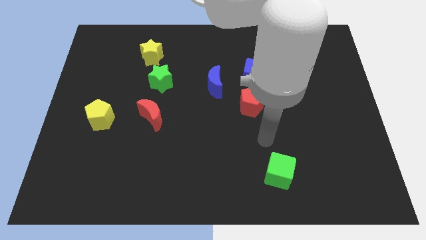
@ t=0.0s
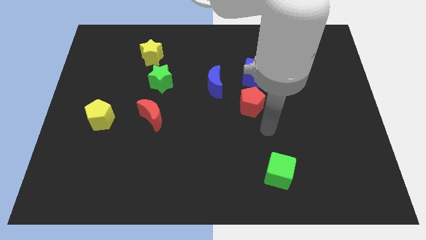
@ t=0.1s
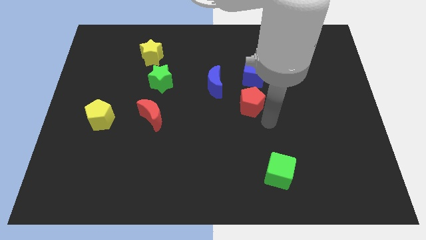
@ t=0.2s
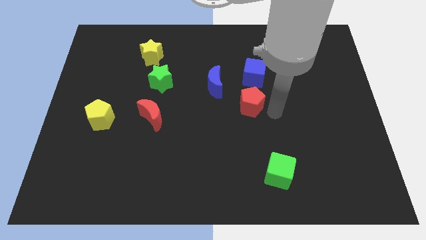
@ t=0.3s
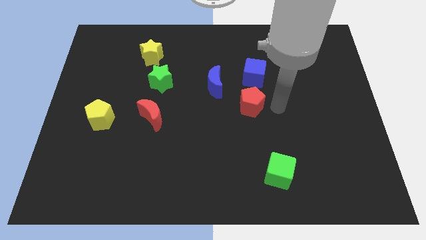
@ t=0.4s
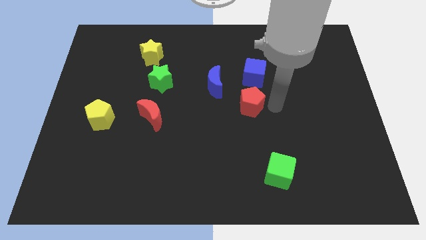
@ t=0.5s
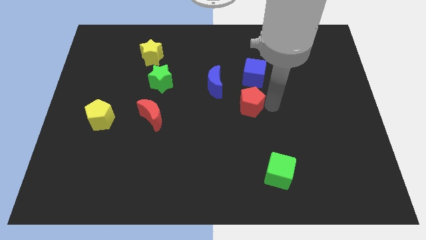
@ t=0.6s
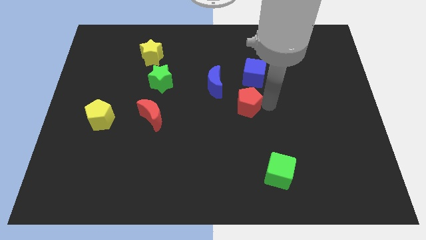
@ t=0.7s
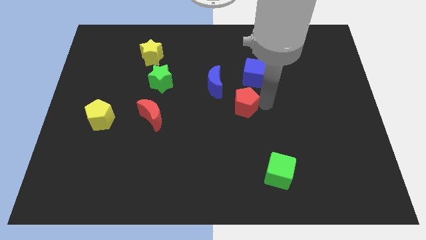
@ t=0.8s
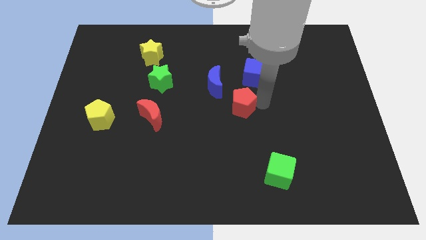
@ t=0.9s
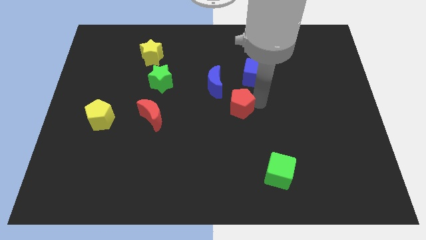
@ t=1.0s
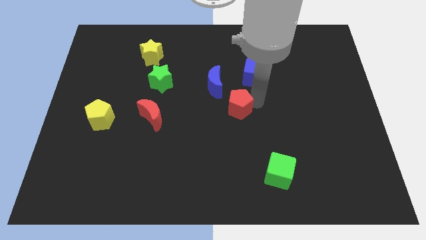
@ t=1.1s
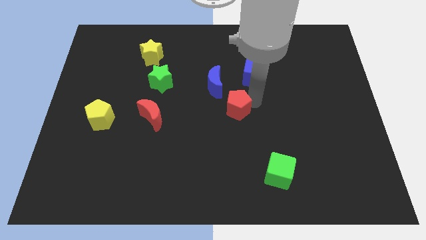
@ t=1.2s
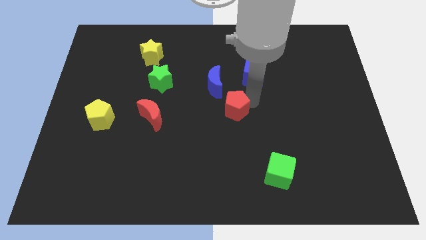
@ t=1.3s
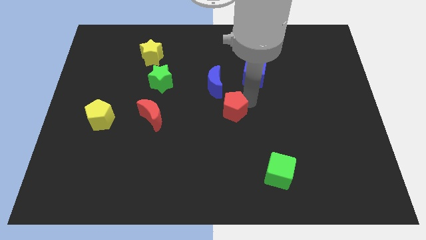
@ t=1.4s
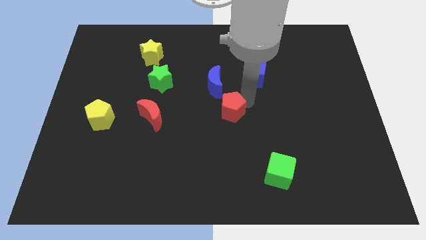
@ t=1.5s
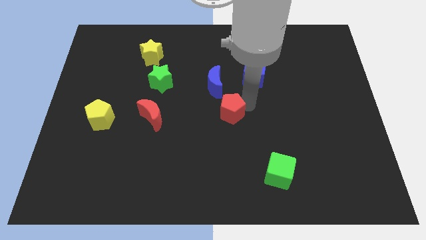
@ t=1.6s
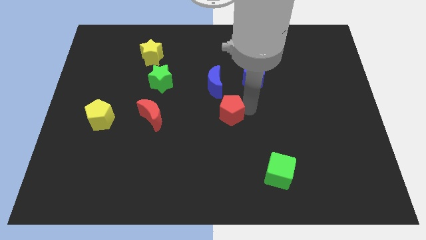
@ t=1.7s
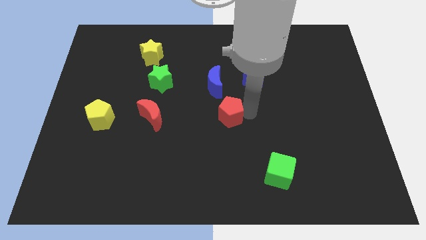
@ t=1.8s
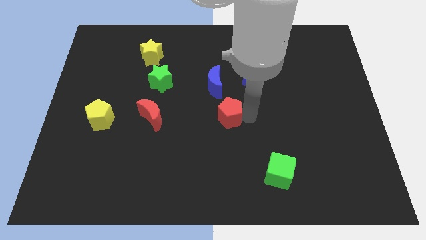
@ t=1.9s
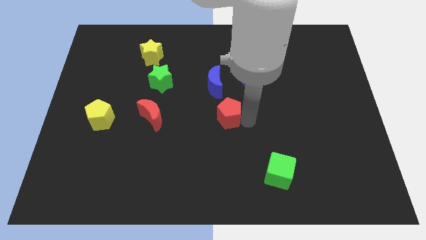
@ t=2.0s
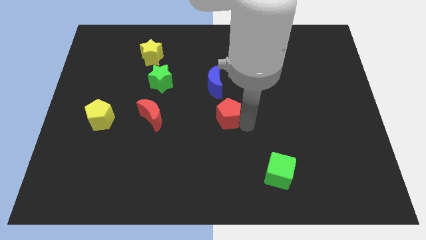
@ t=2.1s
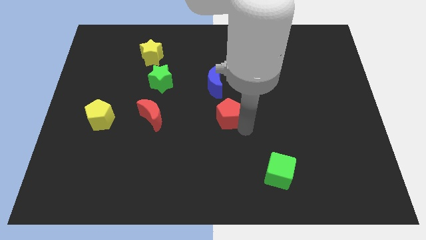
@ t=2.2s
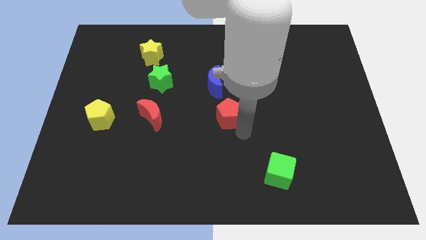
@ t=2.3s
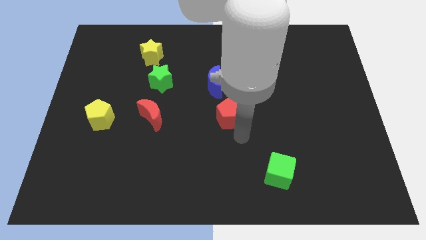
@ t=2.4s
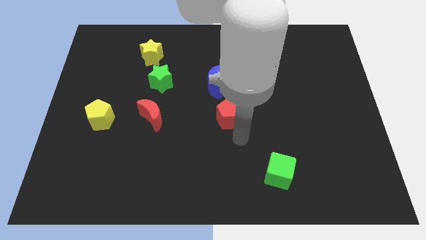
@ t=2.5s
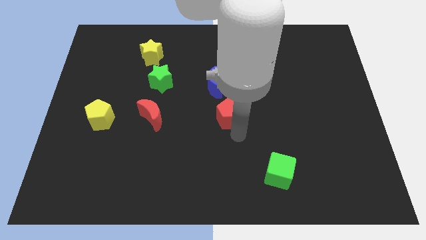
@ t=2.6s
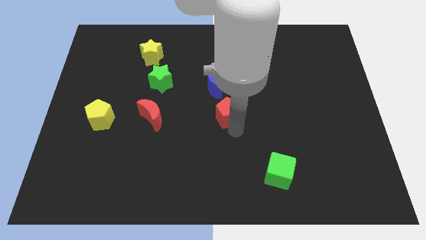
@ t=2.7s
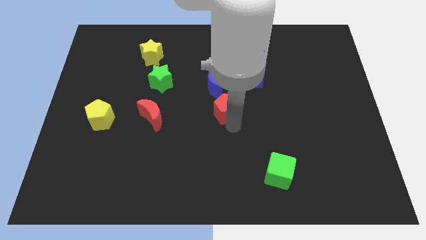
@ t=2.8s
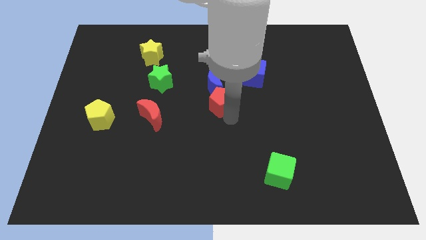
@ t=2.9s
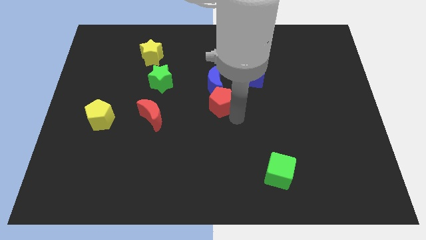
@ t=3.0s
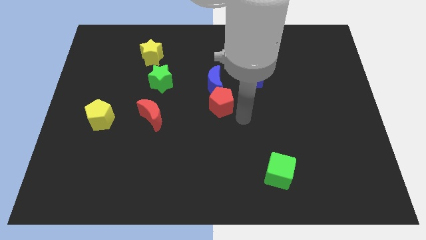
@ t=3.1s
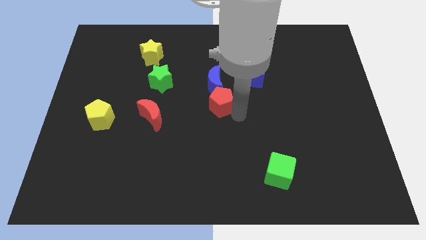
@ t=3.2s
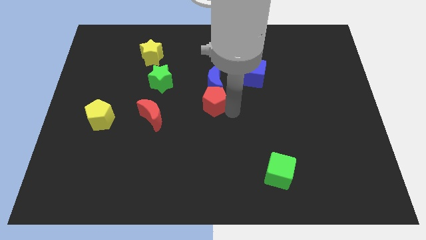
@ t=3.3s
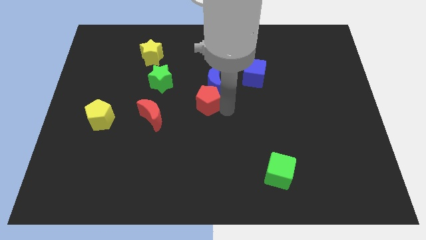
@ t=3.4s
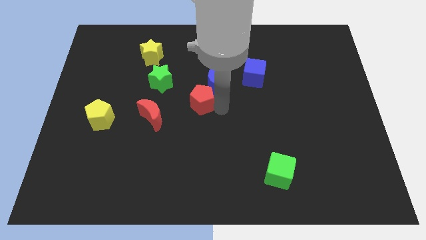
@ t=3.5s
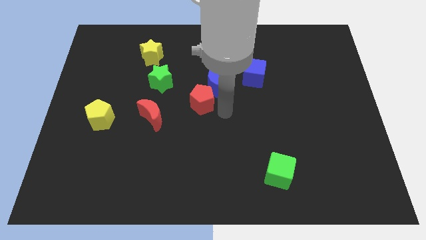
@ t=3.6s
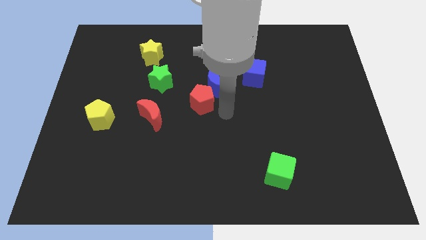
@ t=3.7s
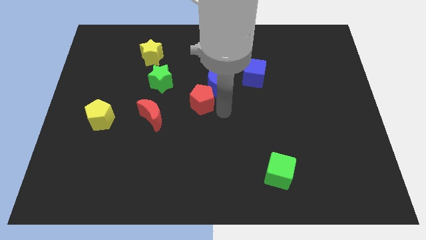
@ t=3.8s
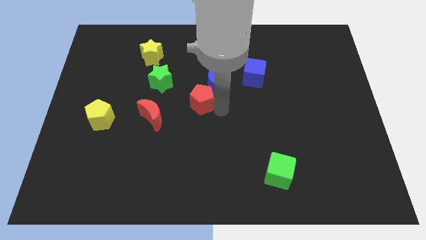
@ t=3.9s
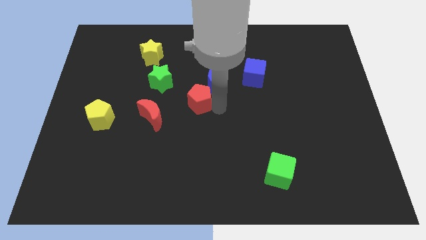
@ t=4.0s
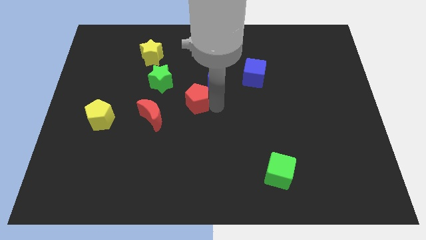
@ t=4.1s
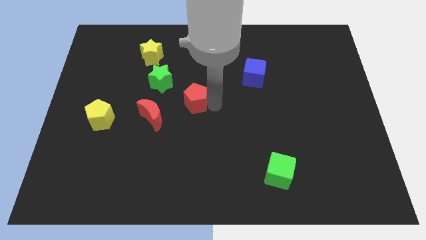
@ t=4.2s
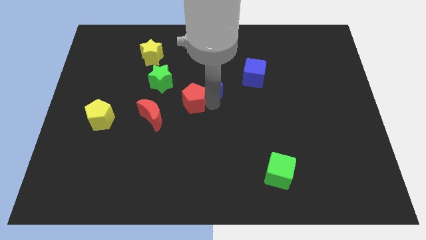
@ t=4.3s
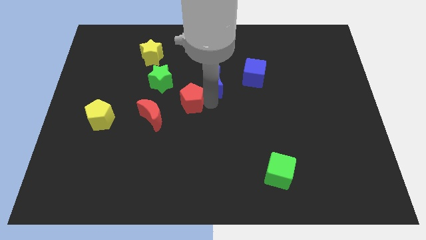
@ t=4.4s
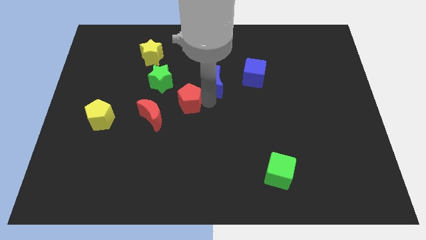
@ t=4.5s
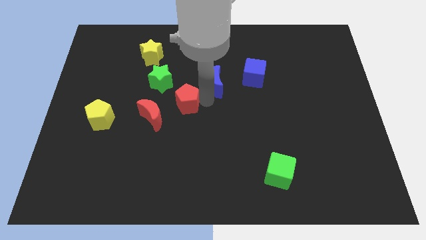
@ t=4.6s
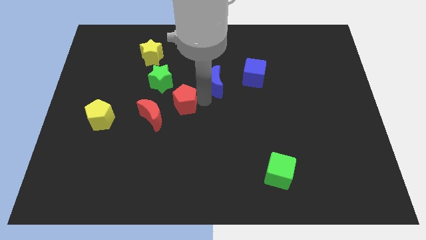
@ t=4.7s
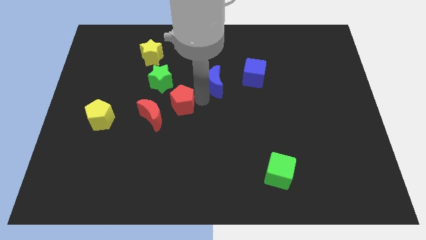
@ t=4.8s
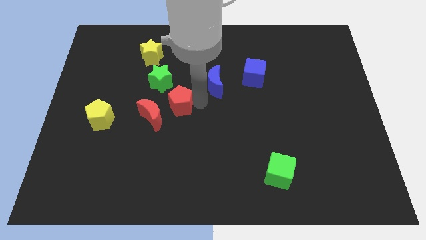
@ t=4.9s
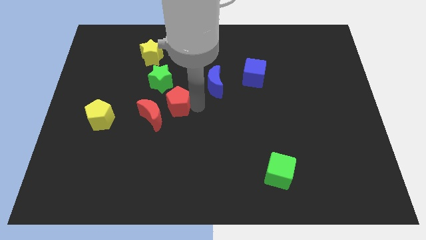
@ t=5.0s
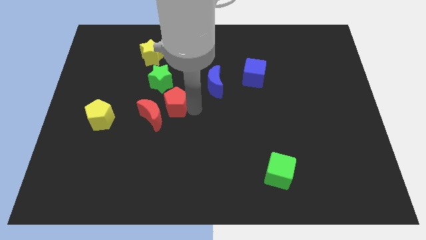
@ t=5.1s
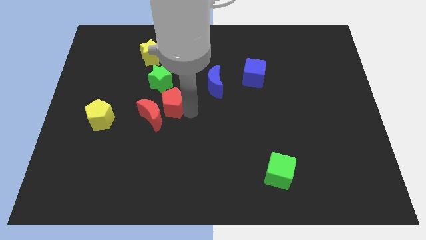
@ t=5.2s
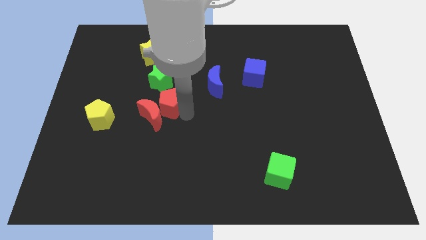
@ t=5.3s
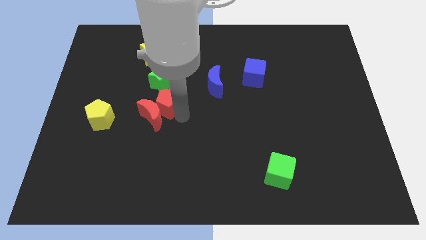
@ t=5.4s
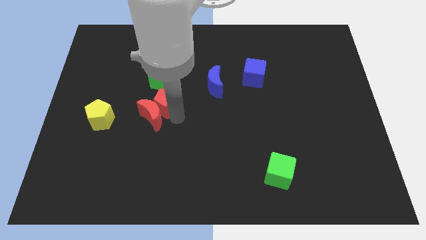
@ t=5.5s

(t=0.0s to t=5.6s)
push the red pentagon left

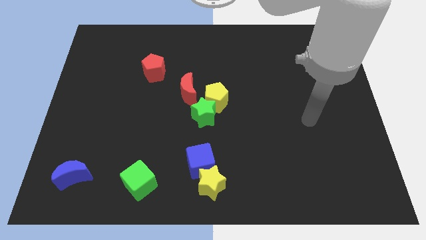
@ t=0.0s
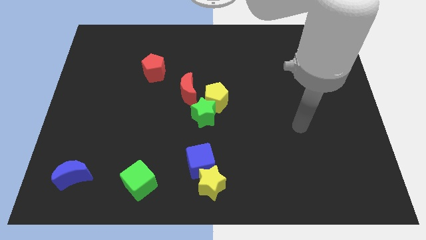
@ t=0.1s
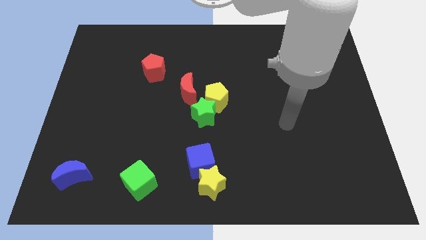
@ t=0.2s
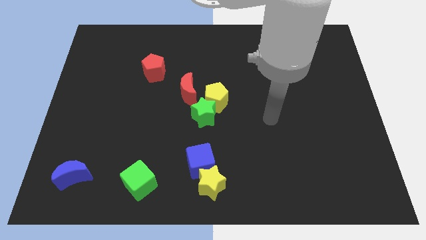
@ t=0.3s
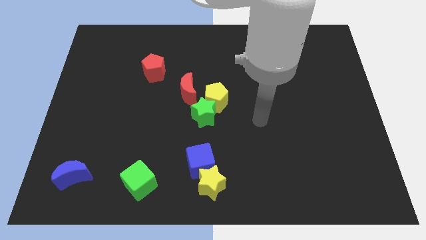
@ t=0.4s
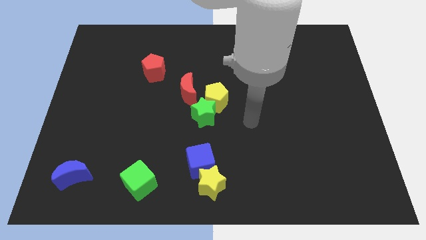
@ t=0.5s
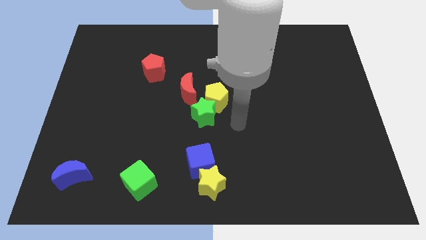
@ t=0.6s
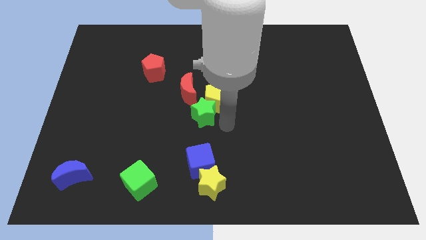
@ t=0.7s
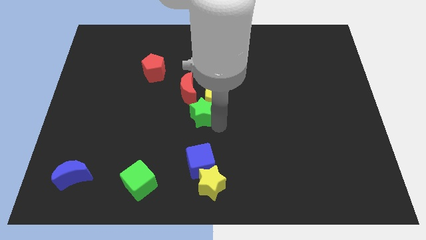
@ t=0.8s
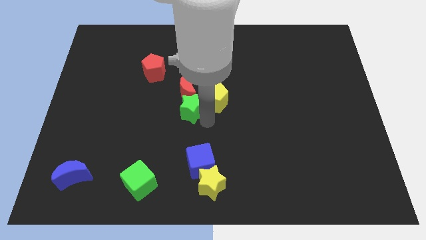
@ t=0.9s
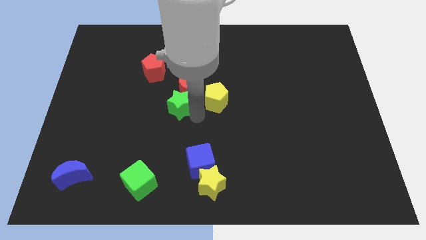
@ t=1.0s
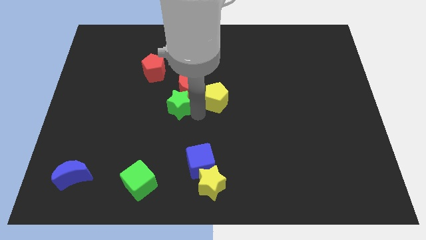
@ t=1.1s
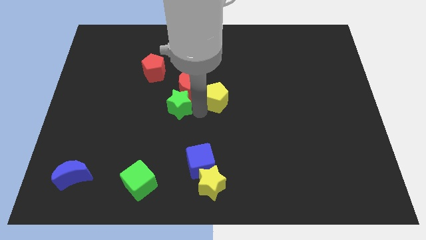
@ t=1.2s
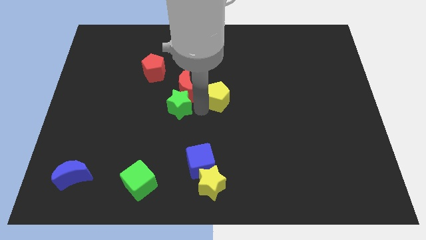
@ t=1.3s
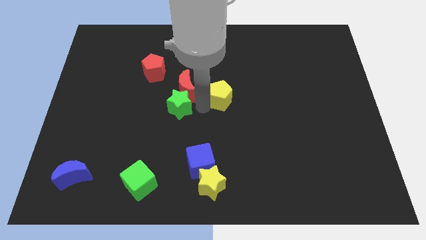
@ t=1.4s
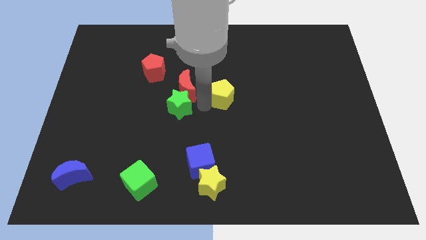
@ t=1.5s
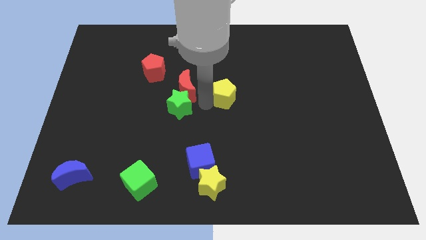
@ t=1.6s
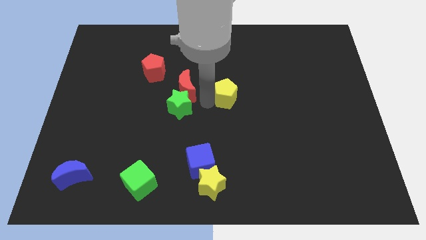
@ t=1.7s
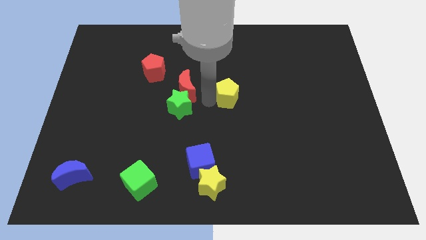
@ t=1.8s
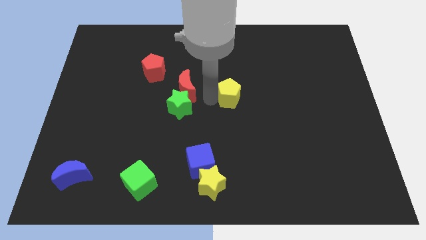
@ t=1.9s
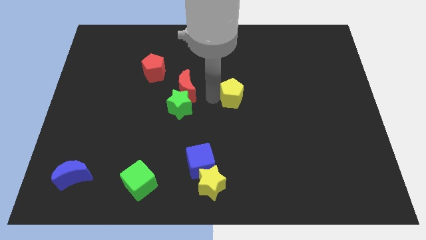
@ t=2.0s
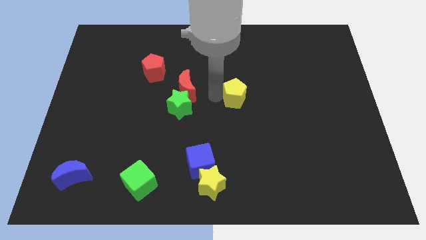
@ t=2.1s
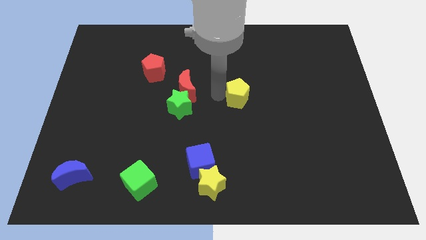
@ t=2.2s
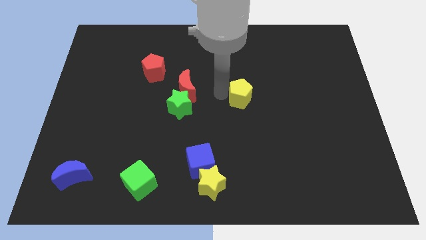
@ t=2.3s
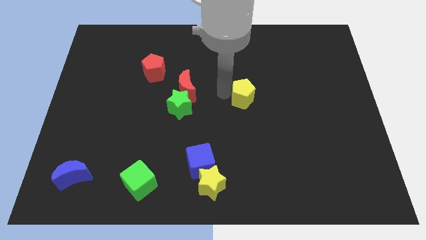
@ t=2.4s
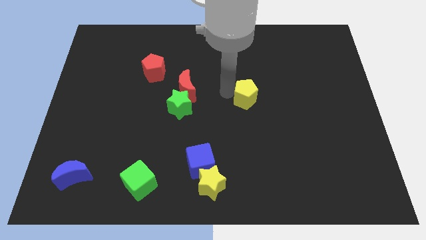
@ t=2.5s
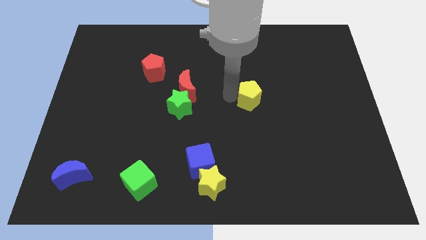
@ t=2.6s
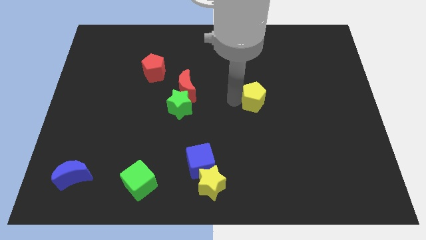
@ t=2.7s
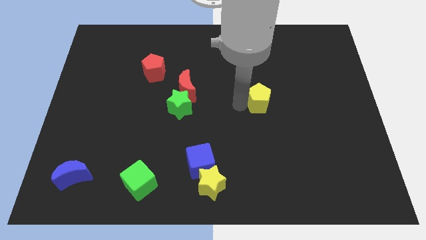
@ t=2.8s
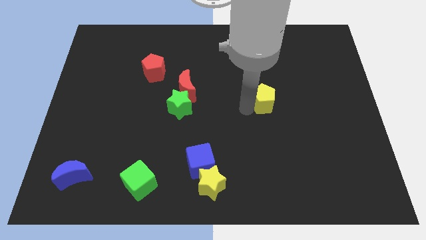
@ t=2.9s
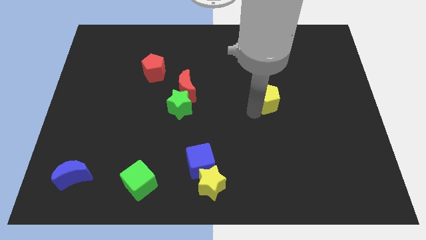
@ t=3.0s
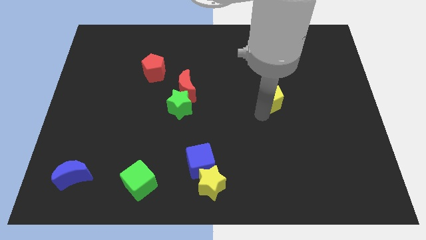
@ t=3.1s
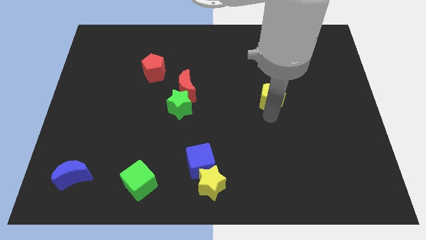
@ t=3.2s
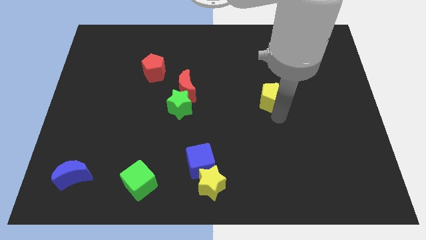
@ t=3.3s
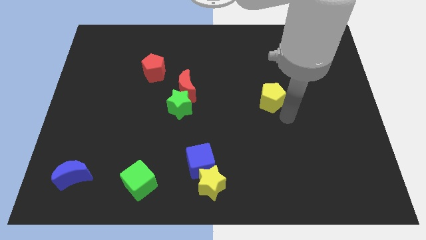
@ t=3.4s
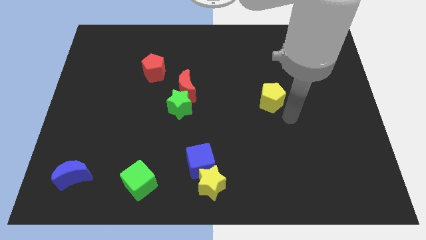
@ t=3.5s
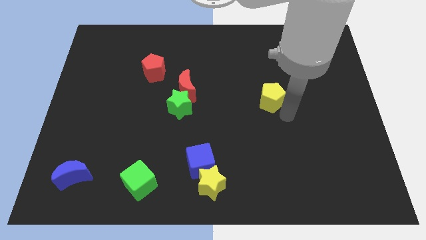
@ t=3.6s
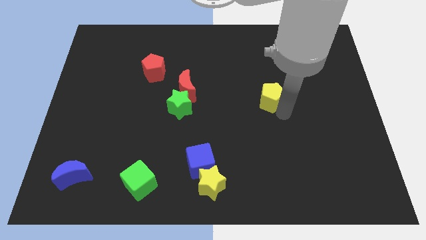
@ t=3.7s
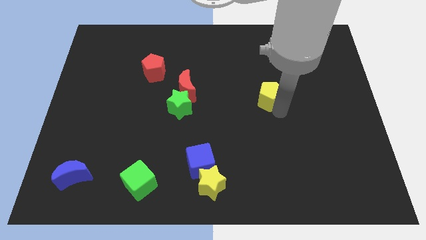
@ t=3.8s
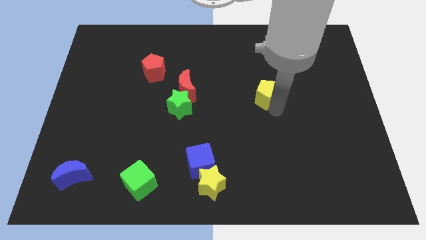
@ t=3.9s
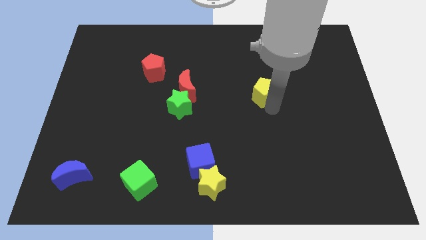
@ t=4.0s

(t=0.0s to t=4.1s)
slightly move the yellow pentagon upwards and right
